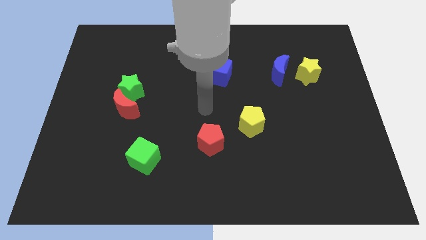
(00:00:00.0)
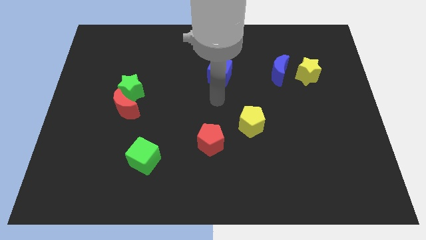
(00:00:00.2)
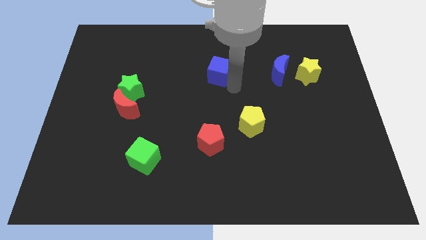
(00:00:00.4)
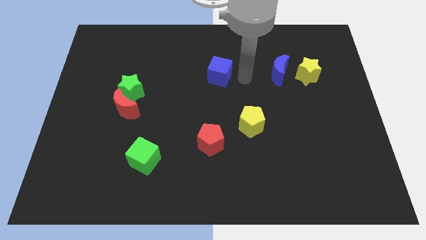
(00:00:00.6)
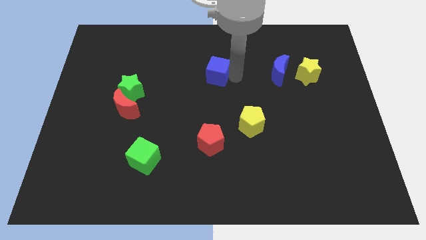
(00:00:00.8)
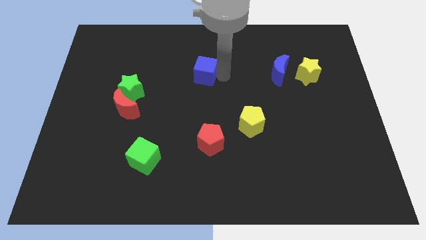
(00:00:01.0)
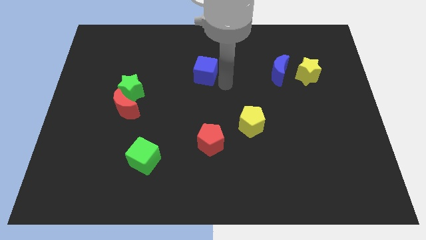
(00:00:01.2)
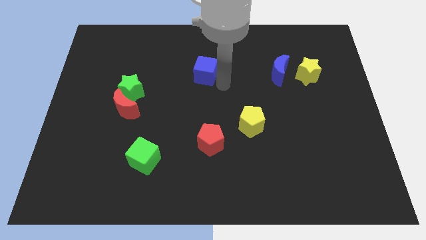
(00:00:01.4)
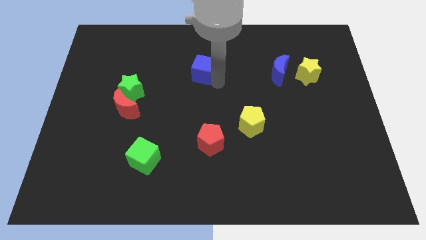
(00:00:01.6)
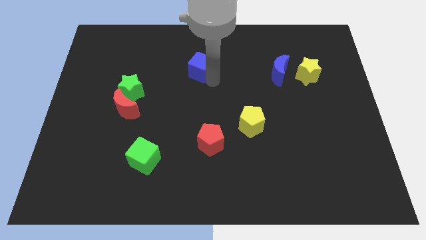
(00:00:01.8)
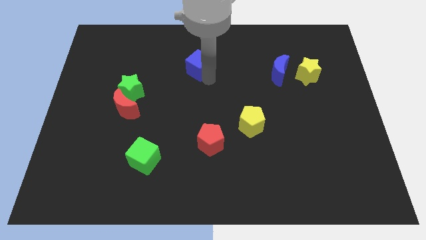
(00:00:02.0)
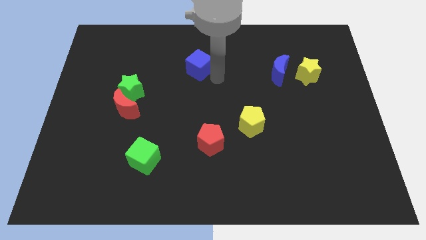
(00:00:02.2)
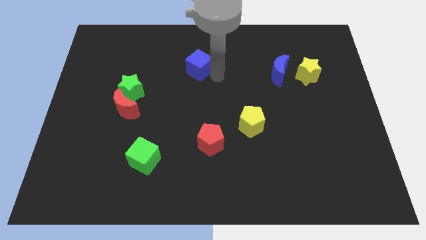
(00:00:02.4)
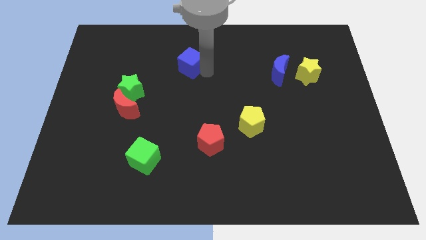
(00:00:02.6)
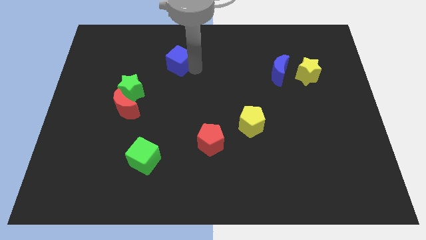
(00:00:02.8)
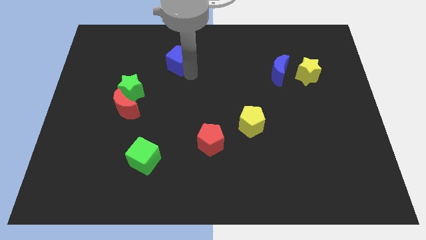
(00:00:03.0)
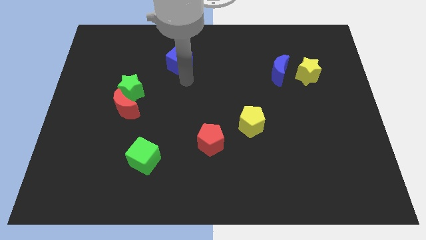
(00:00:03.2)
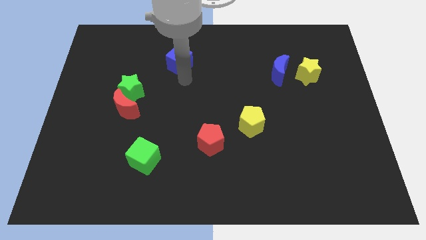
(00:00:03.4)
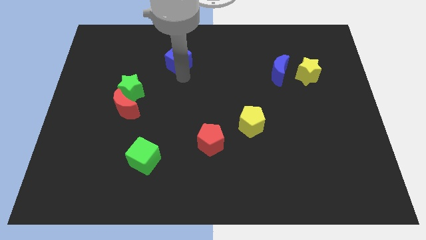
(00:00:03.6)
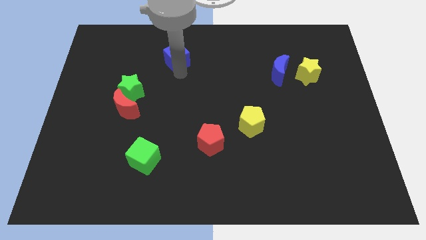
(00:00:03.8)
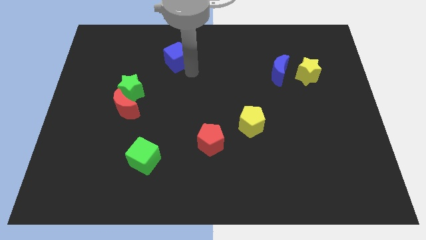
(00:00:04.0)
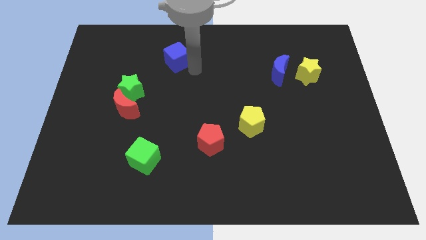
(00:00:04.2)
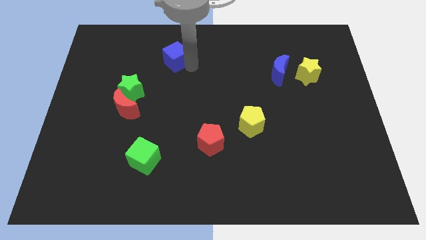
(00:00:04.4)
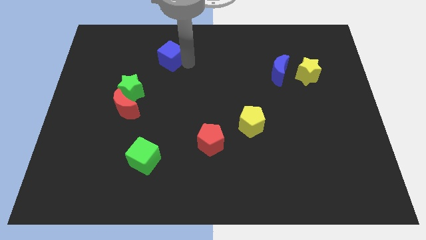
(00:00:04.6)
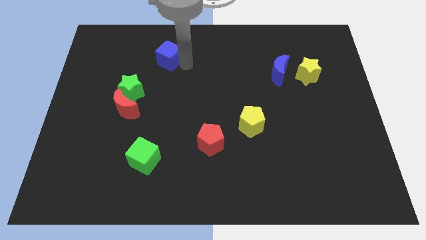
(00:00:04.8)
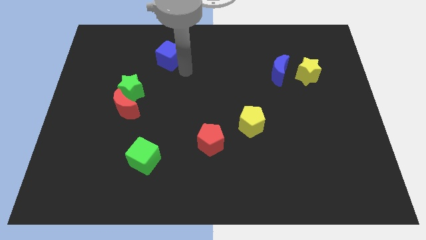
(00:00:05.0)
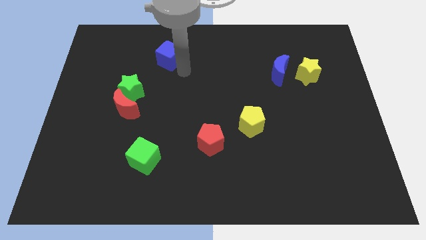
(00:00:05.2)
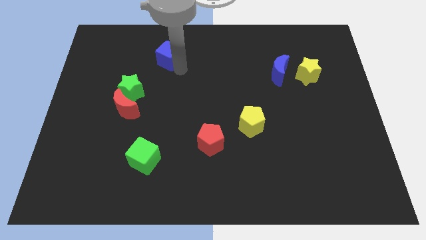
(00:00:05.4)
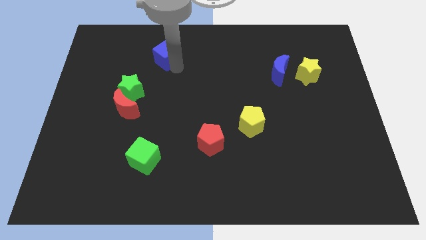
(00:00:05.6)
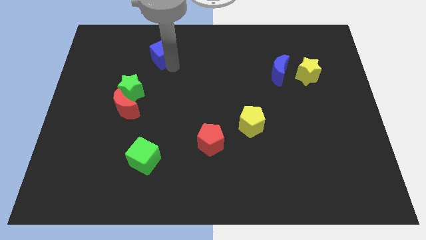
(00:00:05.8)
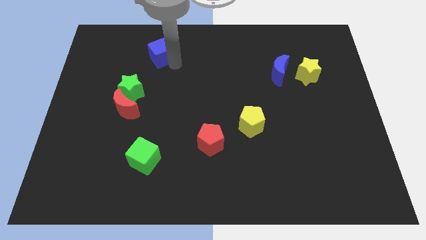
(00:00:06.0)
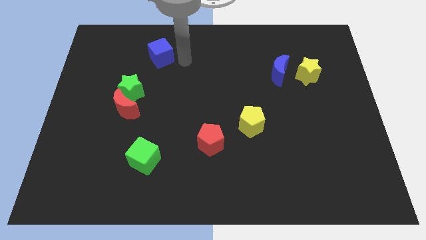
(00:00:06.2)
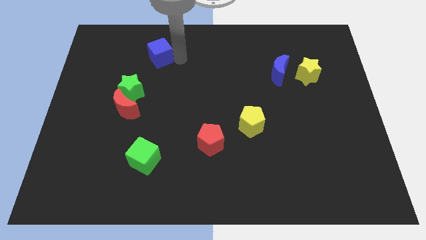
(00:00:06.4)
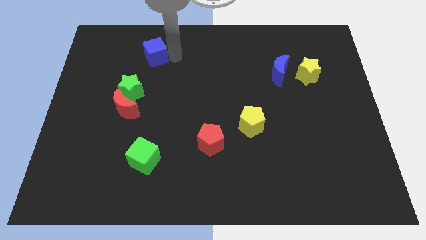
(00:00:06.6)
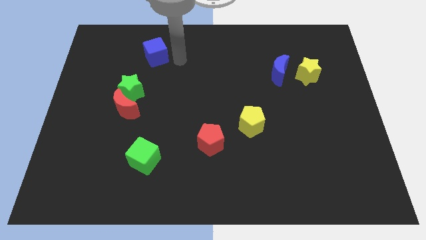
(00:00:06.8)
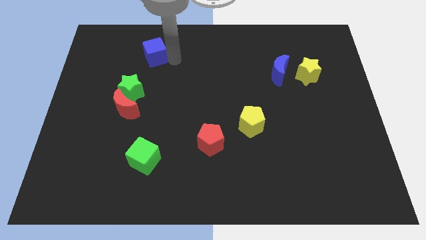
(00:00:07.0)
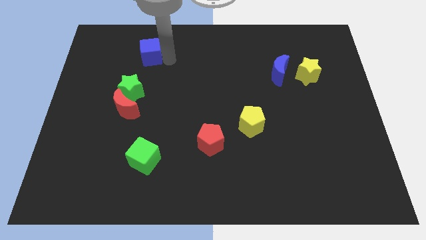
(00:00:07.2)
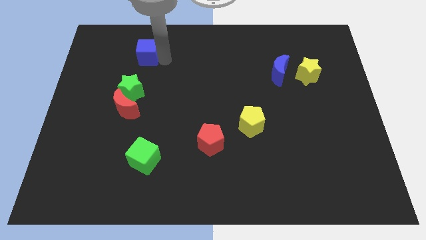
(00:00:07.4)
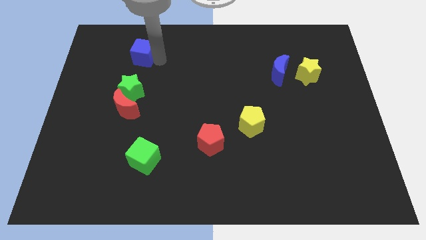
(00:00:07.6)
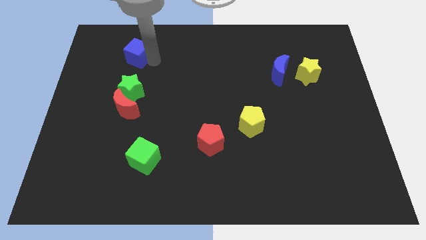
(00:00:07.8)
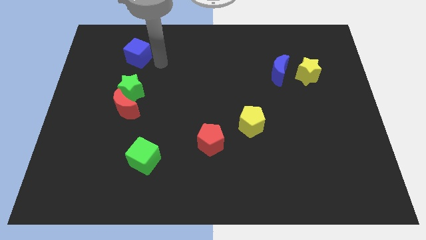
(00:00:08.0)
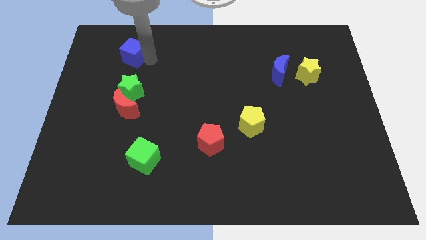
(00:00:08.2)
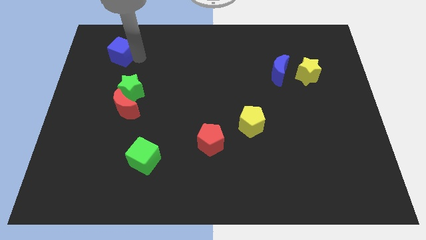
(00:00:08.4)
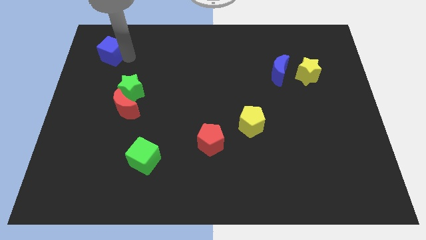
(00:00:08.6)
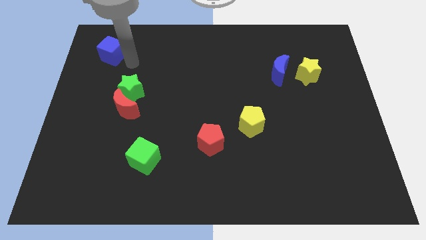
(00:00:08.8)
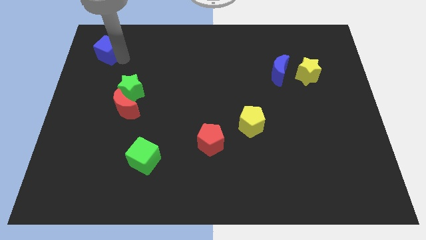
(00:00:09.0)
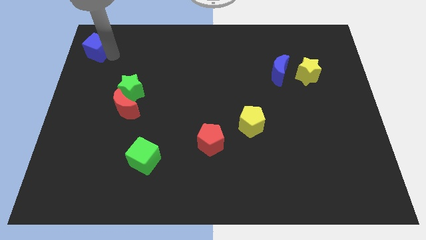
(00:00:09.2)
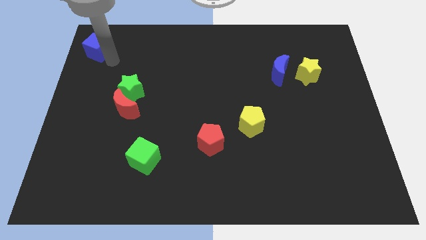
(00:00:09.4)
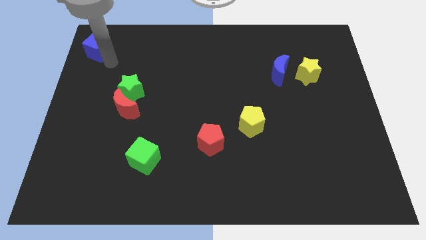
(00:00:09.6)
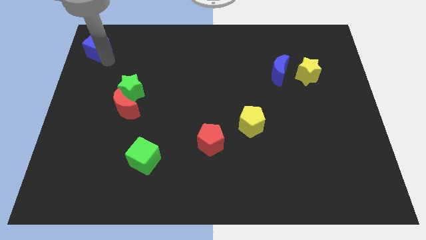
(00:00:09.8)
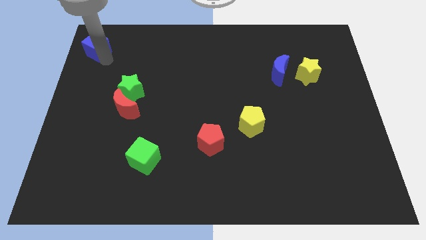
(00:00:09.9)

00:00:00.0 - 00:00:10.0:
push the blue cube to the top left corner

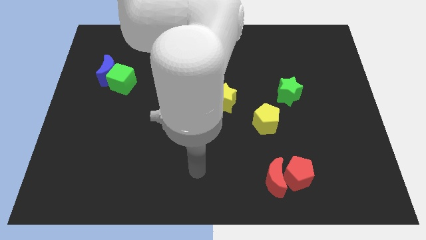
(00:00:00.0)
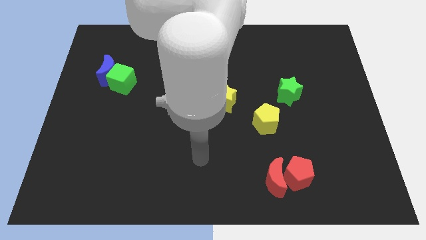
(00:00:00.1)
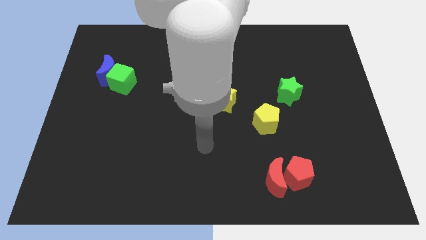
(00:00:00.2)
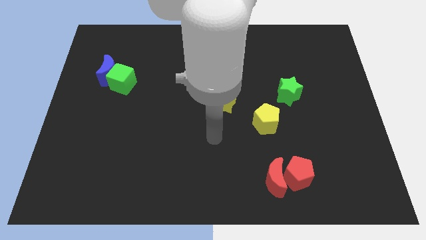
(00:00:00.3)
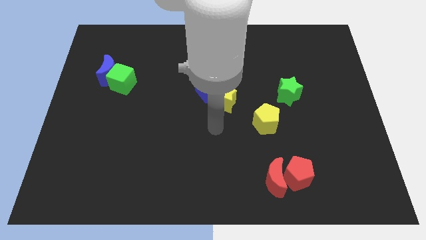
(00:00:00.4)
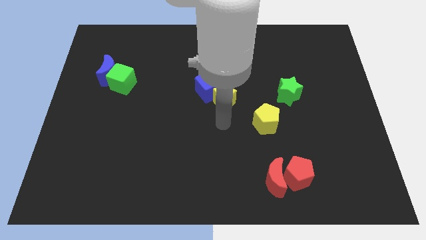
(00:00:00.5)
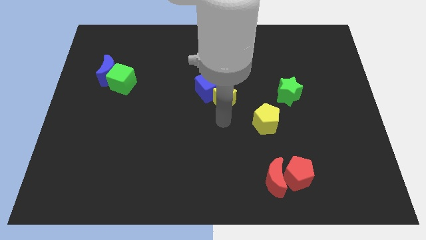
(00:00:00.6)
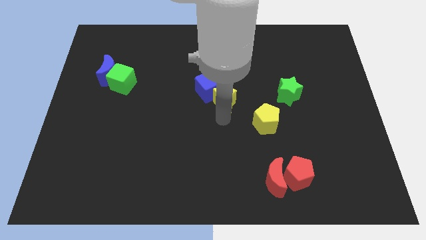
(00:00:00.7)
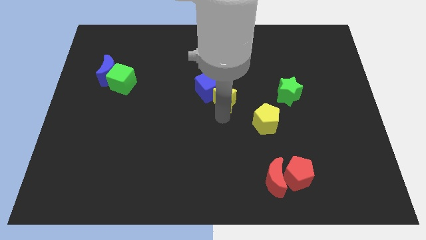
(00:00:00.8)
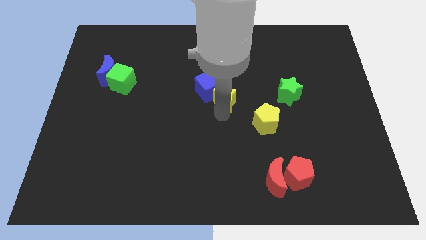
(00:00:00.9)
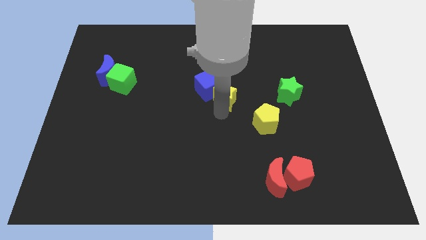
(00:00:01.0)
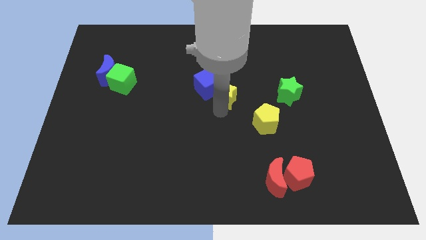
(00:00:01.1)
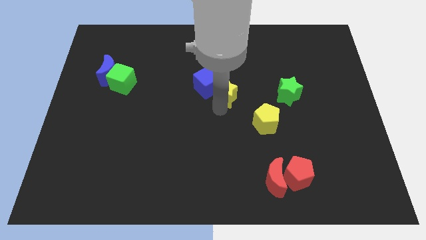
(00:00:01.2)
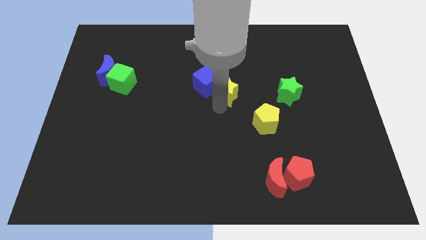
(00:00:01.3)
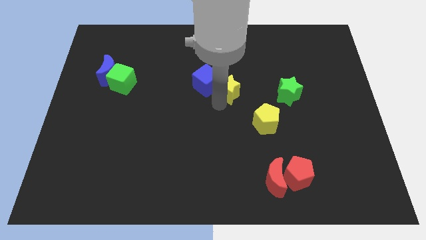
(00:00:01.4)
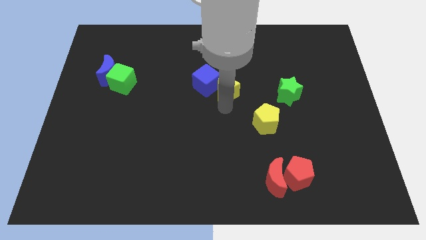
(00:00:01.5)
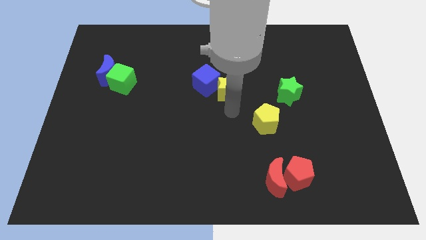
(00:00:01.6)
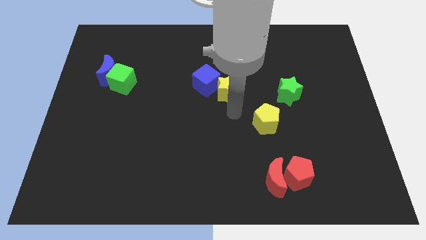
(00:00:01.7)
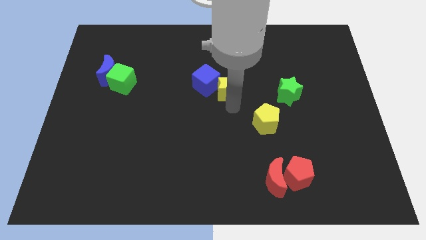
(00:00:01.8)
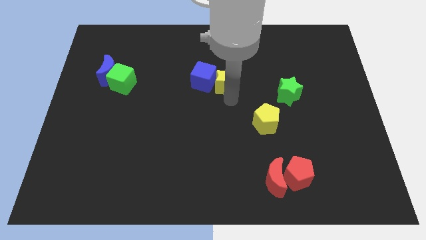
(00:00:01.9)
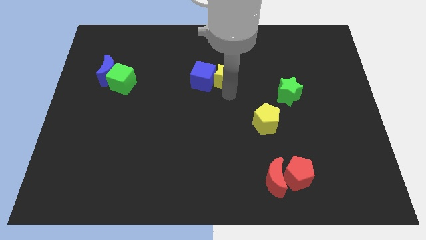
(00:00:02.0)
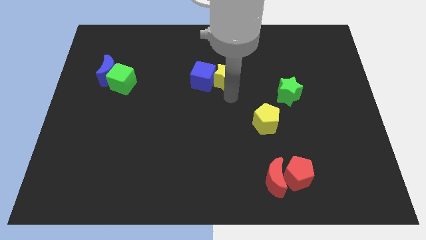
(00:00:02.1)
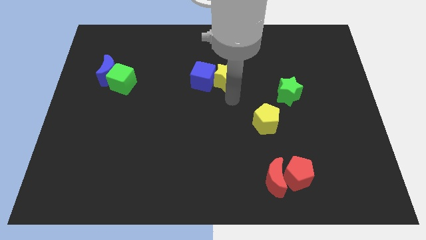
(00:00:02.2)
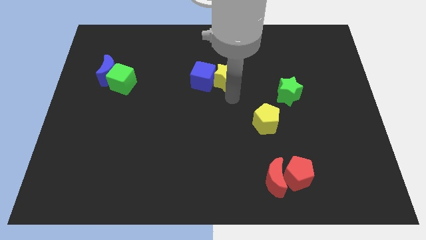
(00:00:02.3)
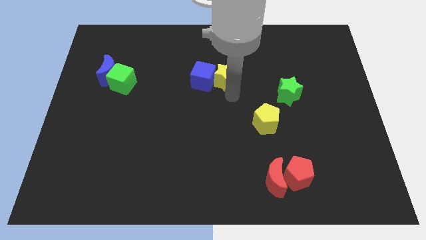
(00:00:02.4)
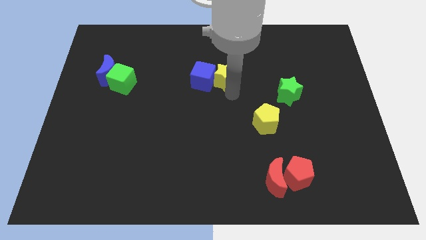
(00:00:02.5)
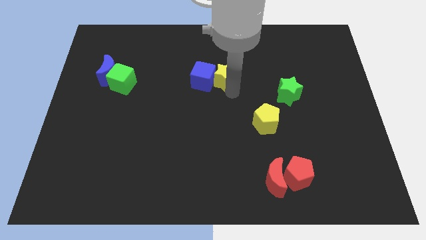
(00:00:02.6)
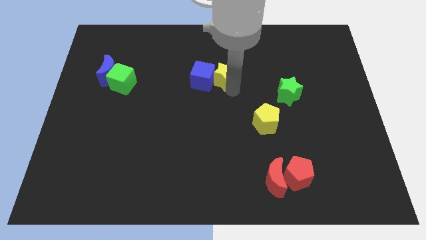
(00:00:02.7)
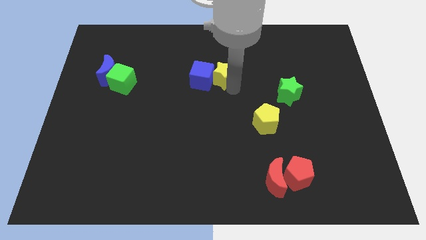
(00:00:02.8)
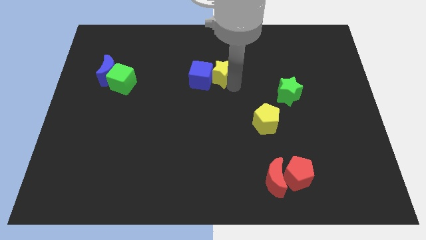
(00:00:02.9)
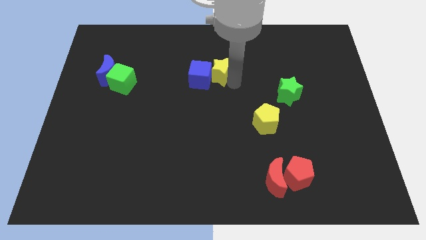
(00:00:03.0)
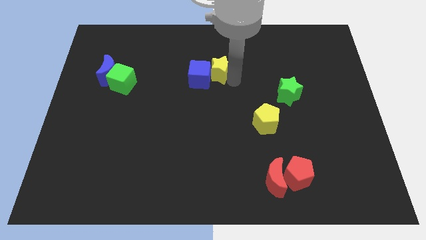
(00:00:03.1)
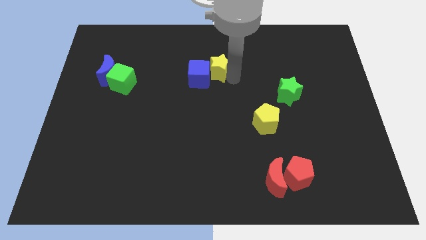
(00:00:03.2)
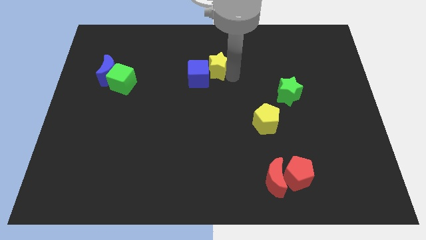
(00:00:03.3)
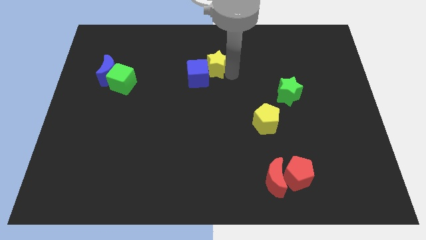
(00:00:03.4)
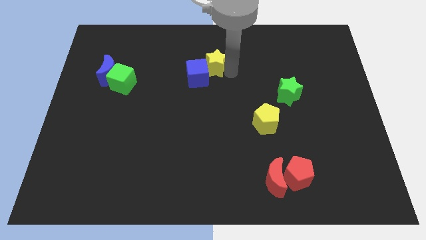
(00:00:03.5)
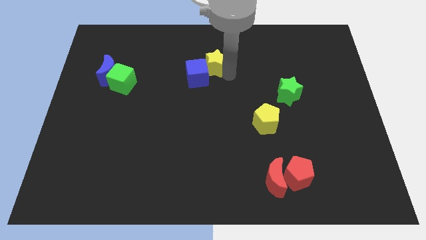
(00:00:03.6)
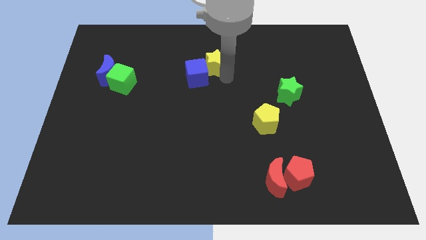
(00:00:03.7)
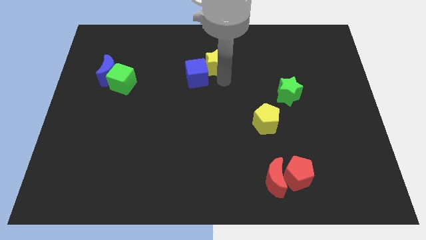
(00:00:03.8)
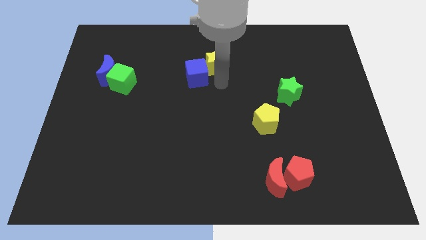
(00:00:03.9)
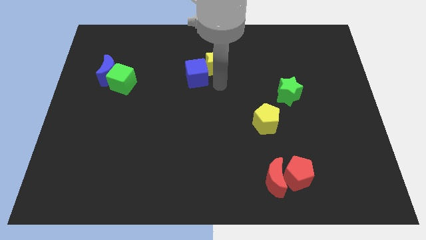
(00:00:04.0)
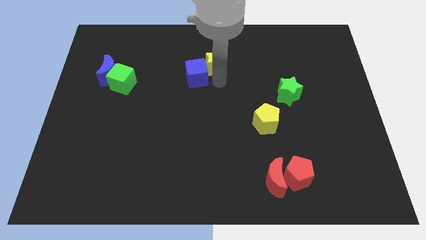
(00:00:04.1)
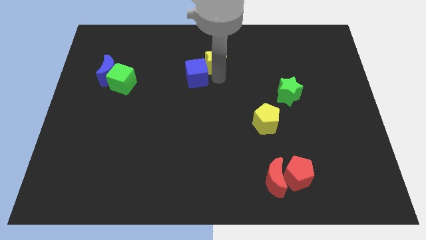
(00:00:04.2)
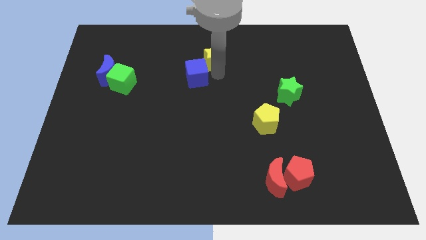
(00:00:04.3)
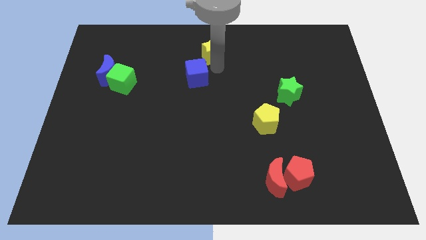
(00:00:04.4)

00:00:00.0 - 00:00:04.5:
put the yellow star to the top side
